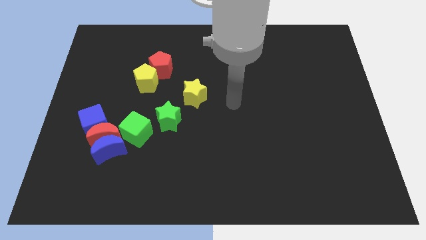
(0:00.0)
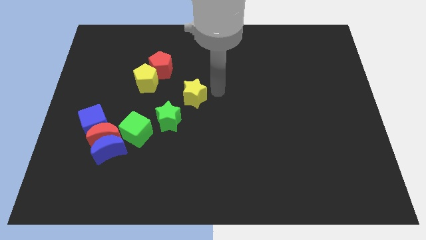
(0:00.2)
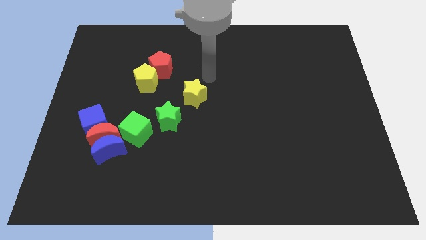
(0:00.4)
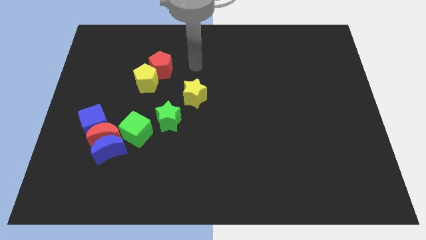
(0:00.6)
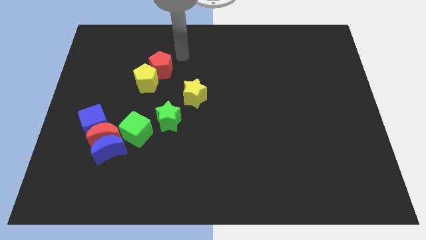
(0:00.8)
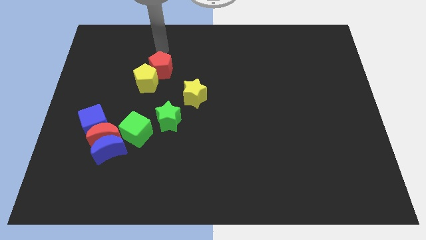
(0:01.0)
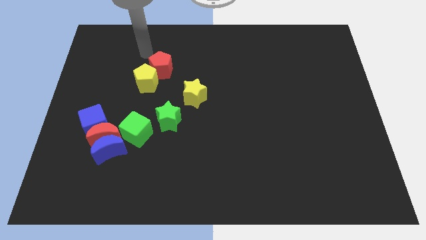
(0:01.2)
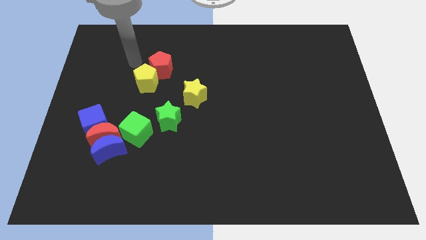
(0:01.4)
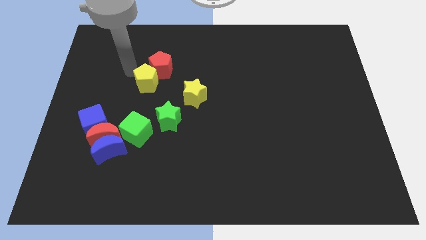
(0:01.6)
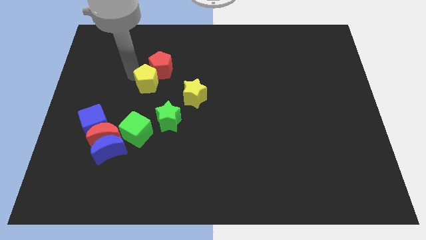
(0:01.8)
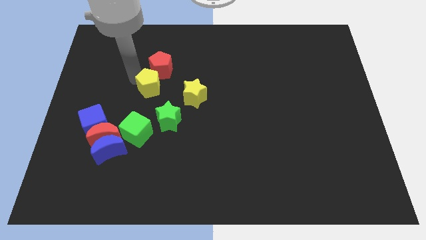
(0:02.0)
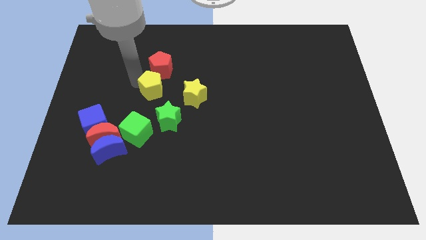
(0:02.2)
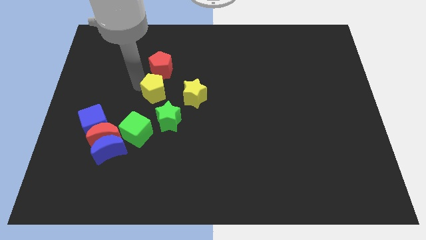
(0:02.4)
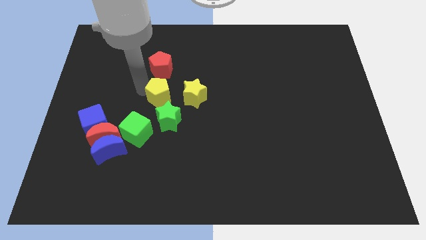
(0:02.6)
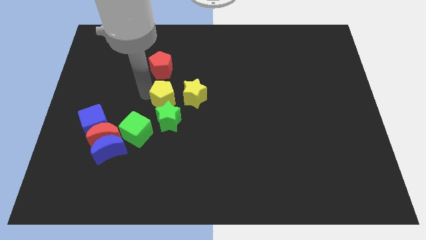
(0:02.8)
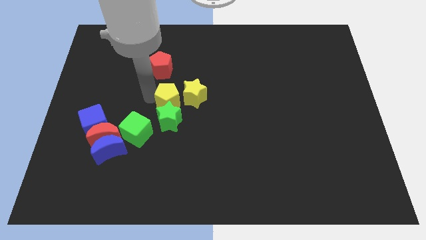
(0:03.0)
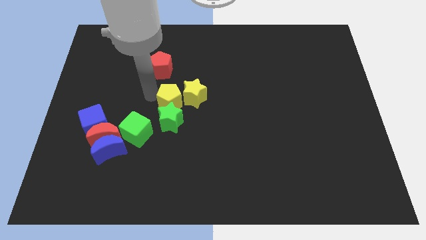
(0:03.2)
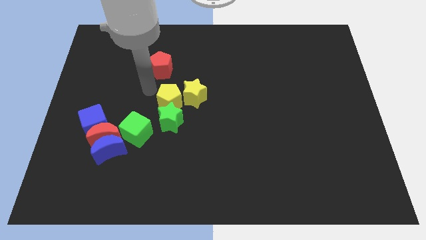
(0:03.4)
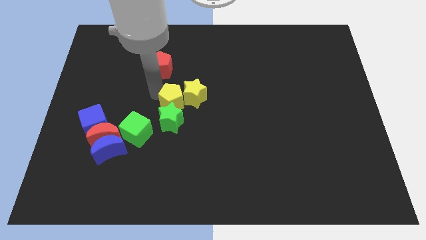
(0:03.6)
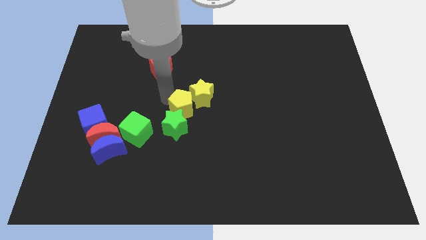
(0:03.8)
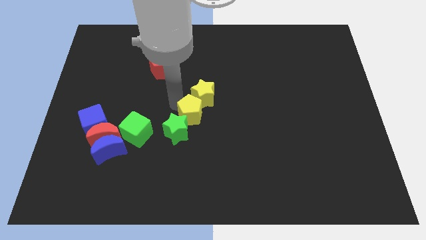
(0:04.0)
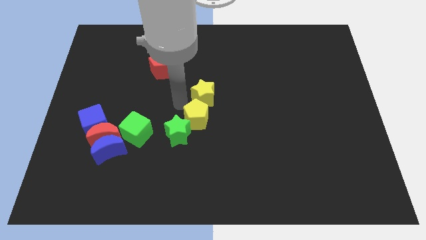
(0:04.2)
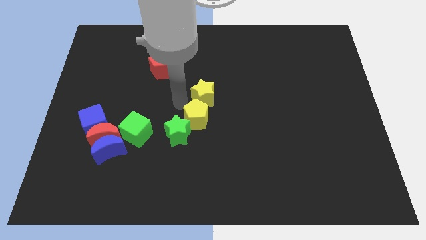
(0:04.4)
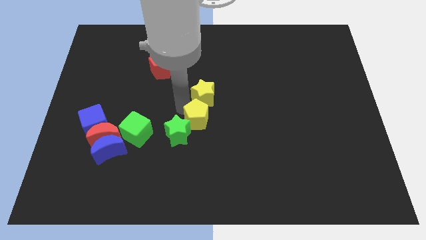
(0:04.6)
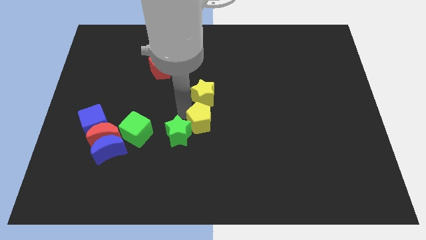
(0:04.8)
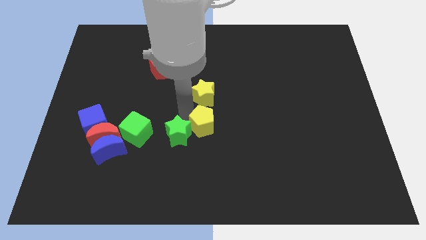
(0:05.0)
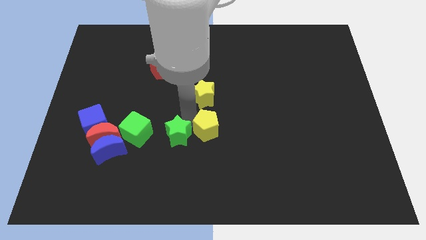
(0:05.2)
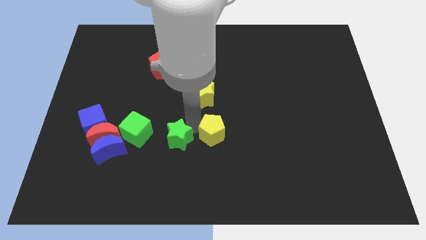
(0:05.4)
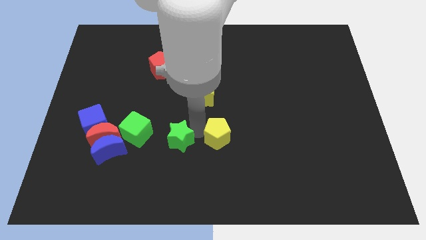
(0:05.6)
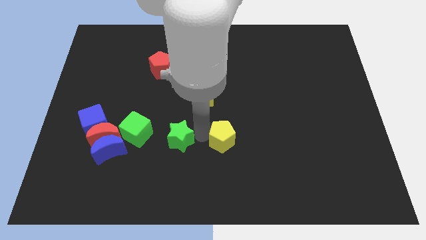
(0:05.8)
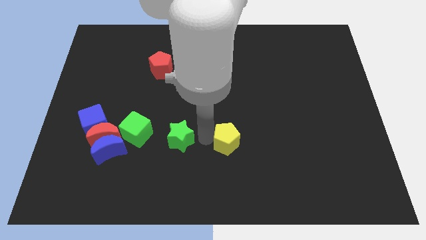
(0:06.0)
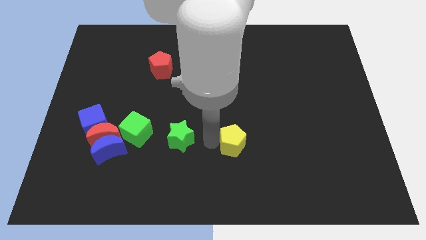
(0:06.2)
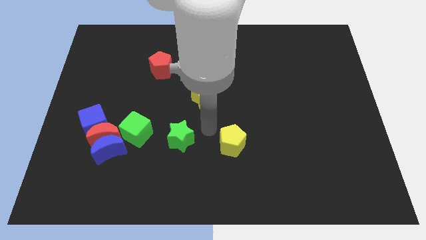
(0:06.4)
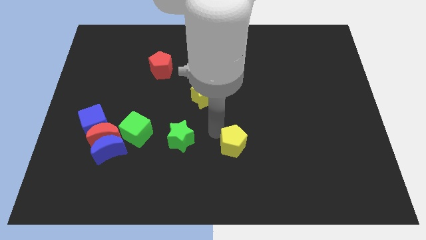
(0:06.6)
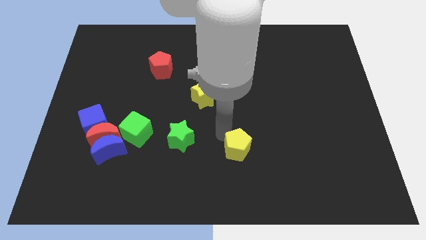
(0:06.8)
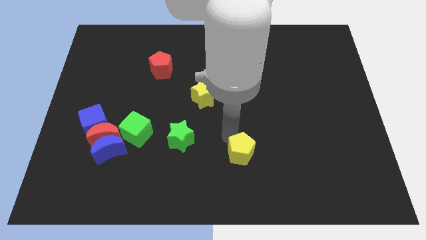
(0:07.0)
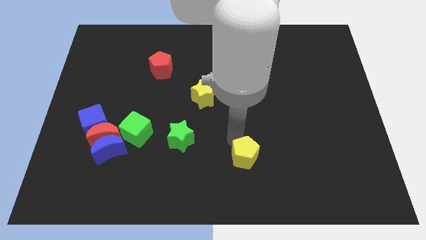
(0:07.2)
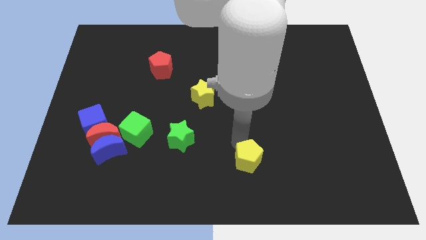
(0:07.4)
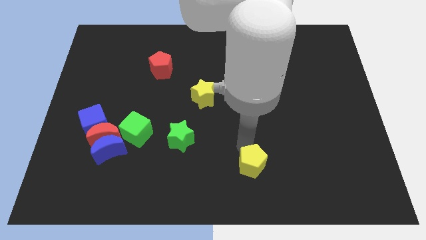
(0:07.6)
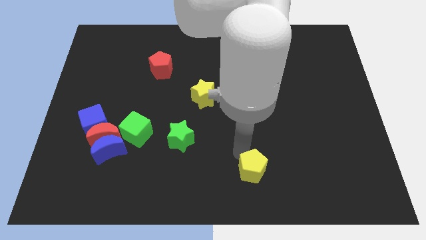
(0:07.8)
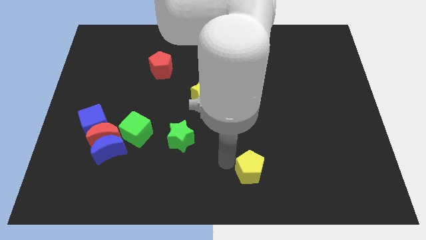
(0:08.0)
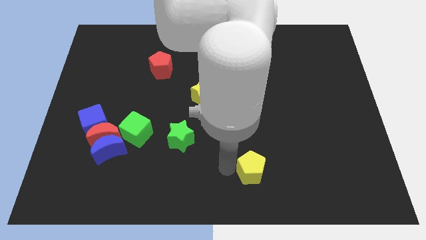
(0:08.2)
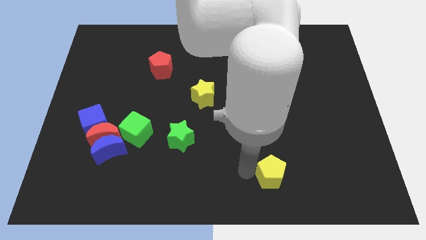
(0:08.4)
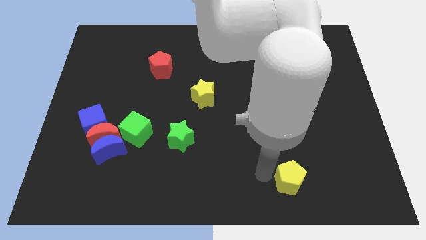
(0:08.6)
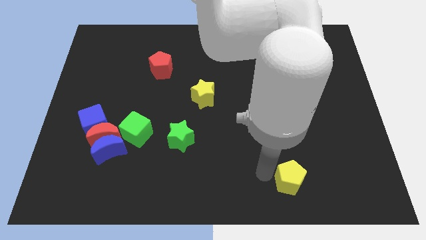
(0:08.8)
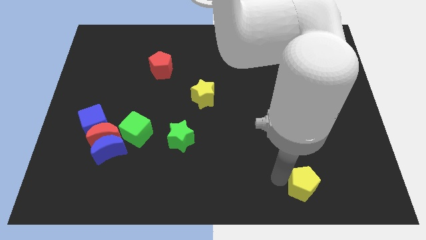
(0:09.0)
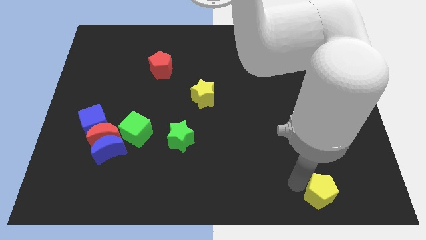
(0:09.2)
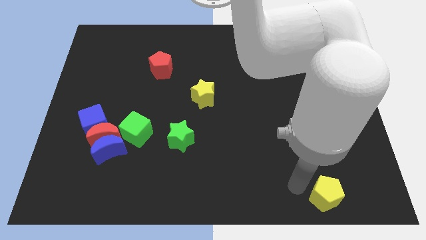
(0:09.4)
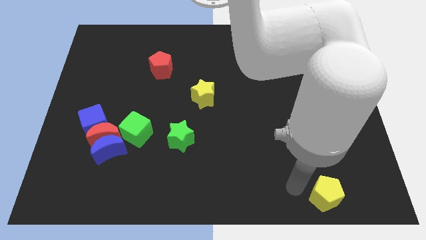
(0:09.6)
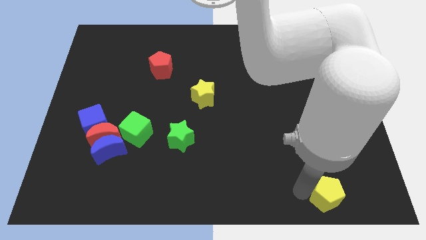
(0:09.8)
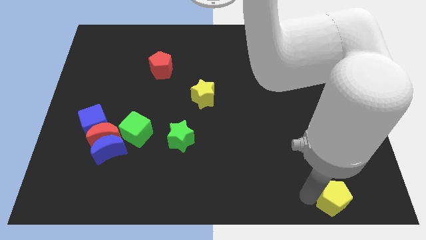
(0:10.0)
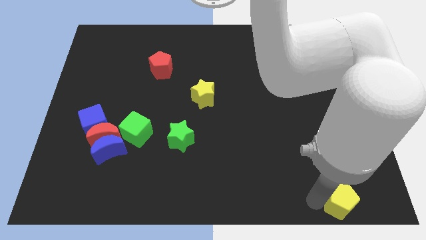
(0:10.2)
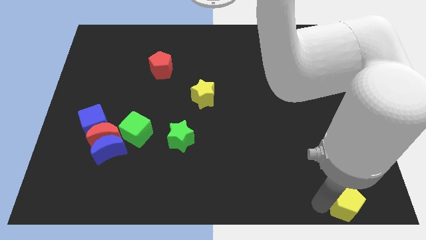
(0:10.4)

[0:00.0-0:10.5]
move the yellow pentagon to the lower right corner
